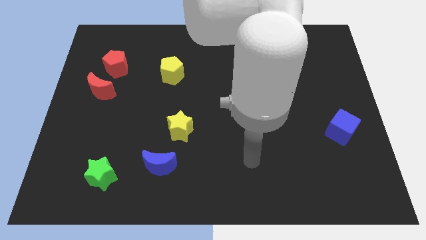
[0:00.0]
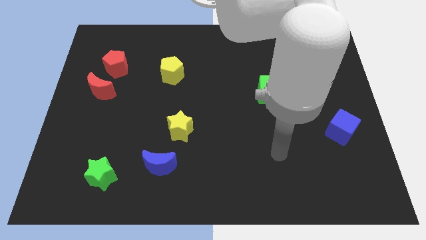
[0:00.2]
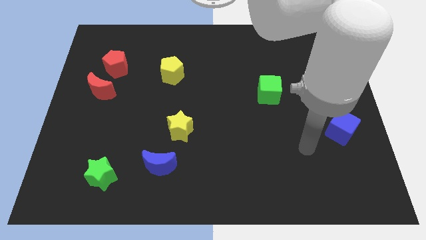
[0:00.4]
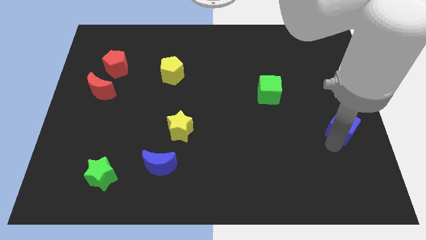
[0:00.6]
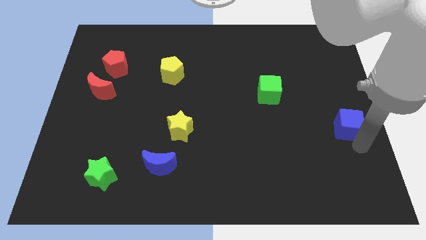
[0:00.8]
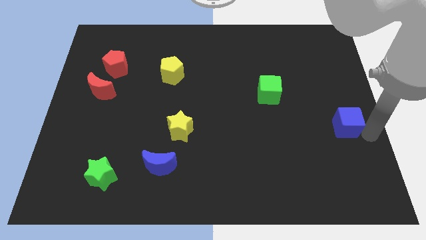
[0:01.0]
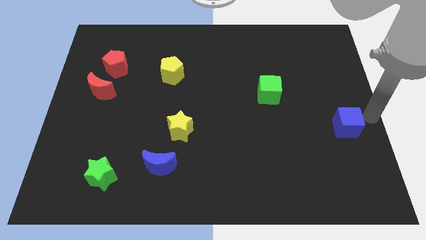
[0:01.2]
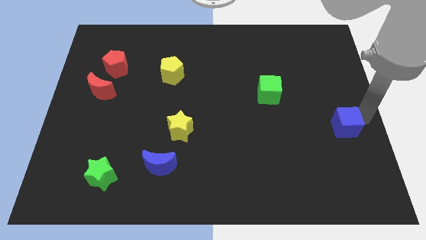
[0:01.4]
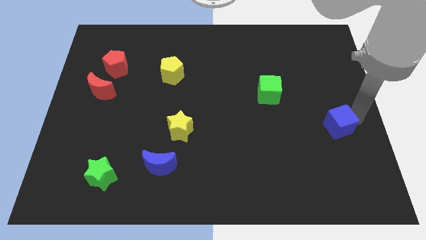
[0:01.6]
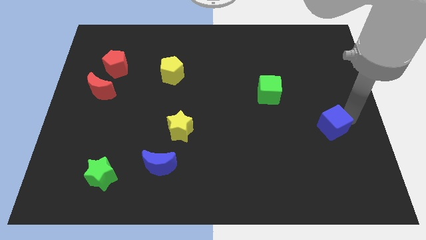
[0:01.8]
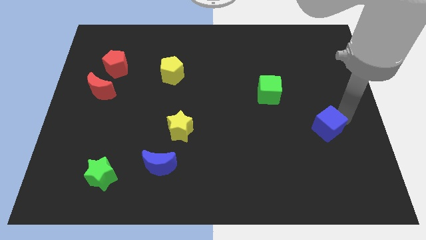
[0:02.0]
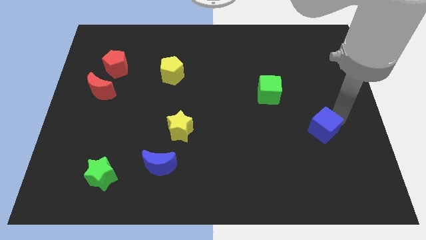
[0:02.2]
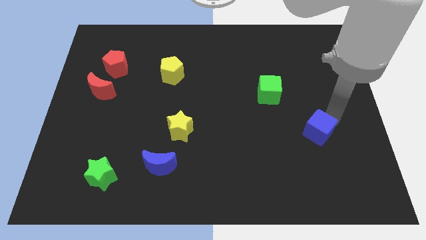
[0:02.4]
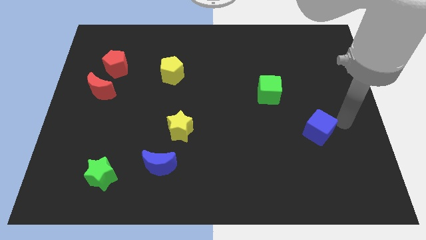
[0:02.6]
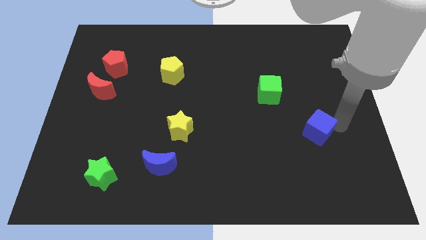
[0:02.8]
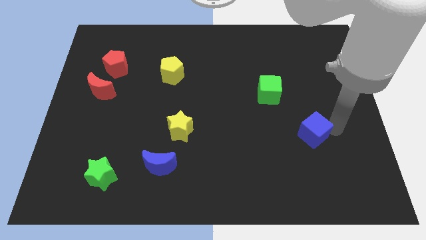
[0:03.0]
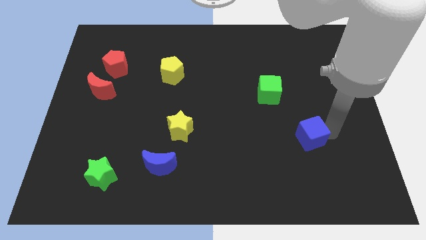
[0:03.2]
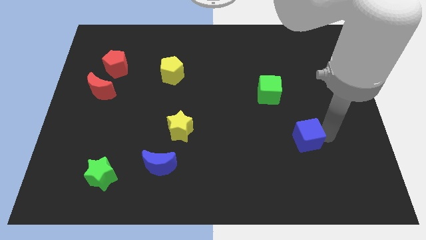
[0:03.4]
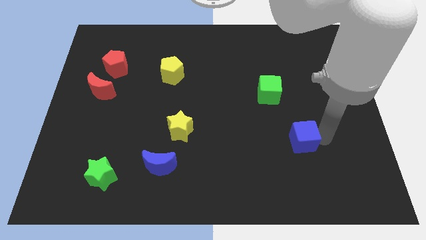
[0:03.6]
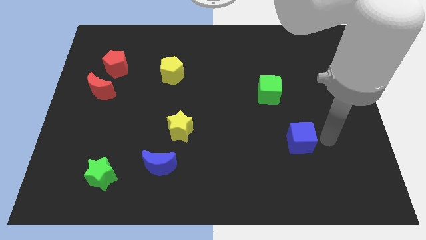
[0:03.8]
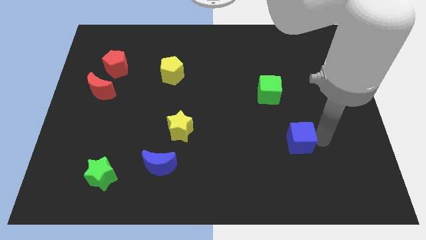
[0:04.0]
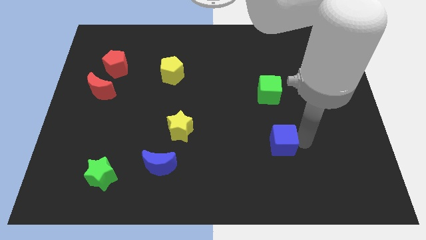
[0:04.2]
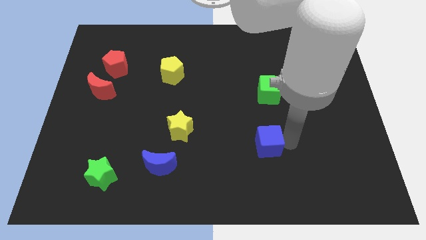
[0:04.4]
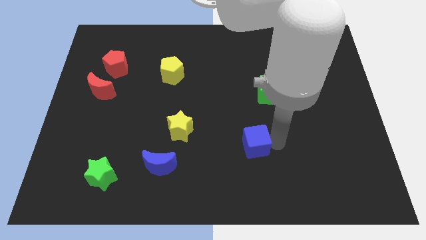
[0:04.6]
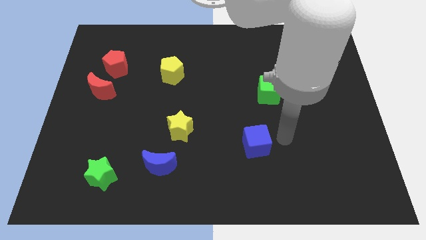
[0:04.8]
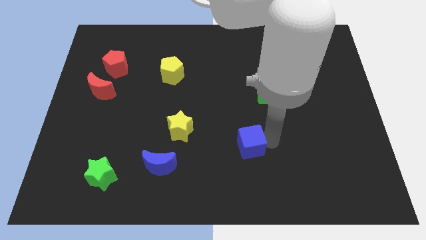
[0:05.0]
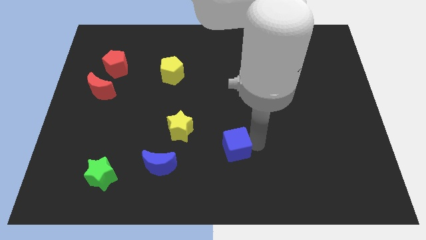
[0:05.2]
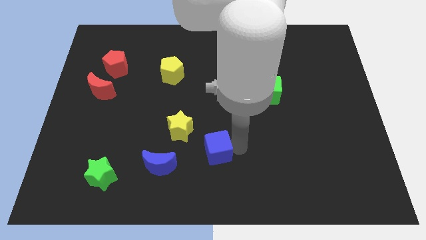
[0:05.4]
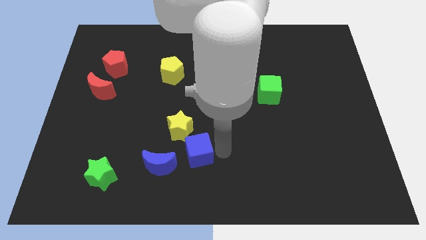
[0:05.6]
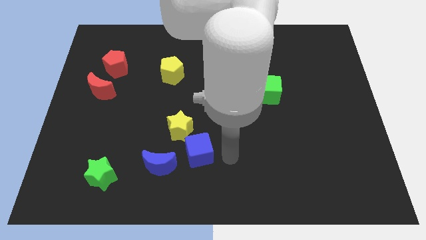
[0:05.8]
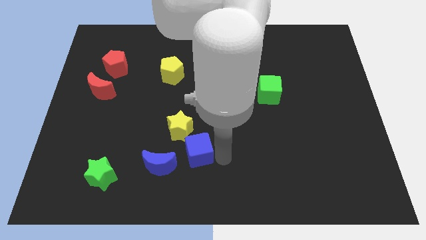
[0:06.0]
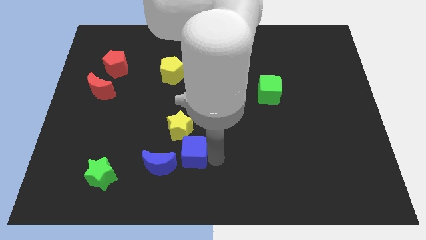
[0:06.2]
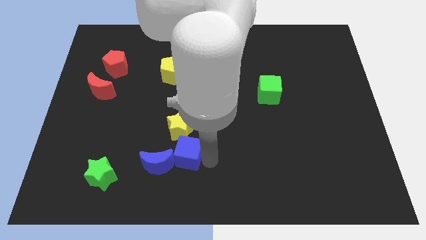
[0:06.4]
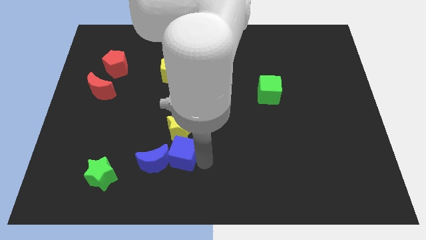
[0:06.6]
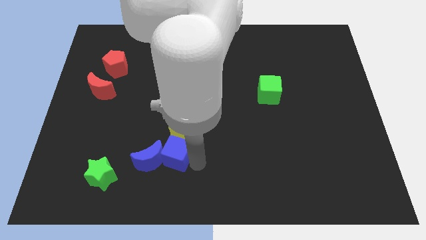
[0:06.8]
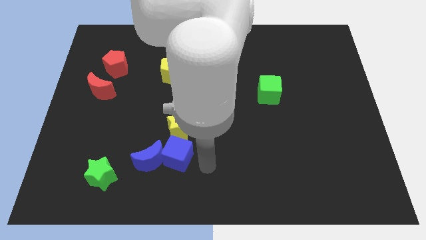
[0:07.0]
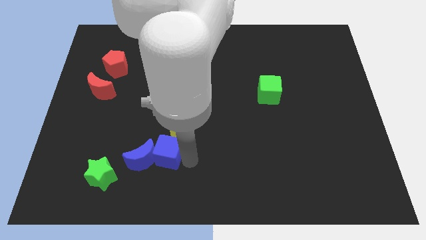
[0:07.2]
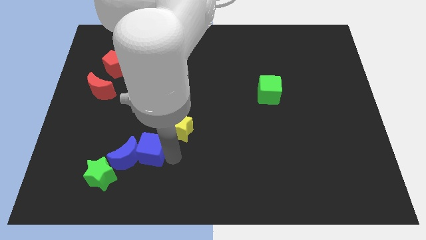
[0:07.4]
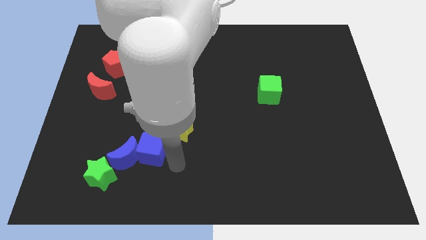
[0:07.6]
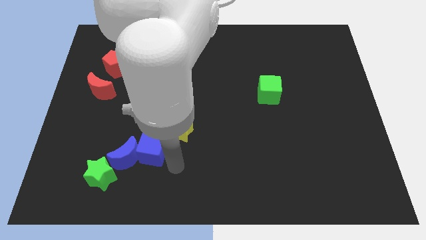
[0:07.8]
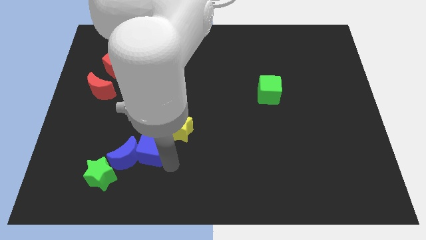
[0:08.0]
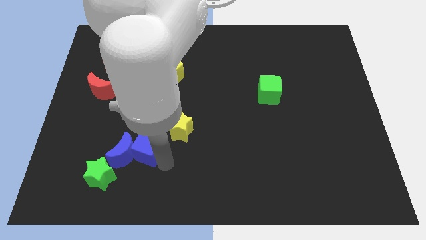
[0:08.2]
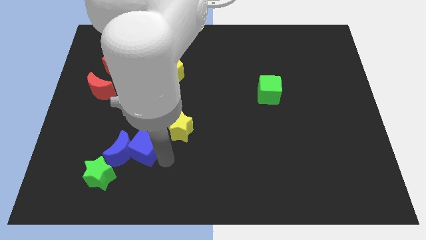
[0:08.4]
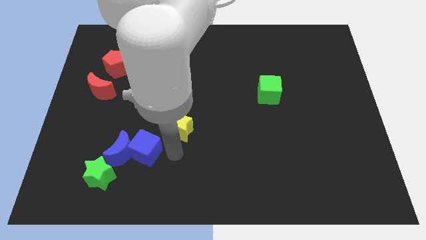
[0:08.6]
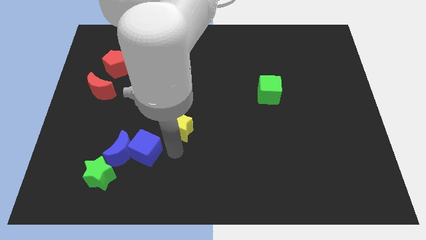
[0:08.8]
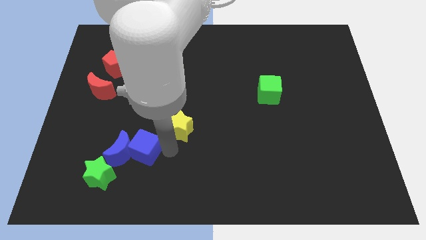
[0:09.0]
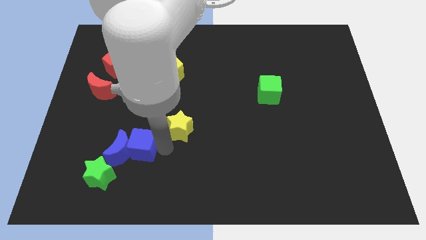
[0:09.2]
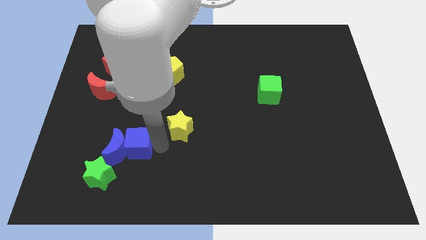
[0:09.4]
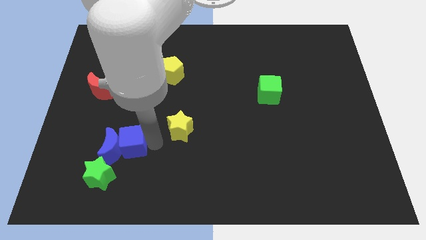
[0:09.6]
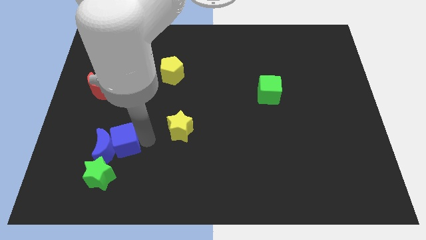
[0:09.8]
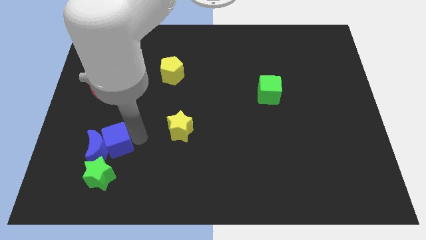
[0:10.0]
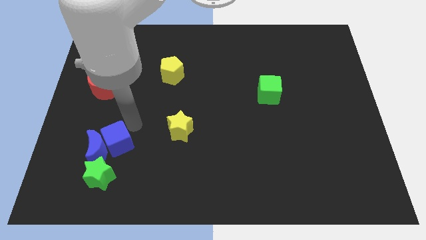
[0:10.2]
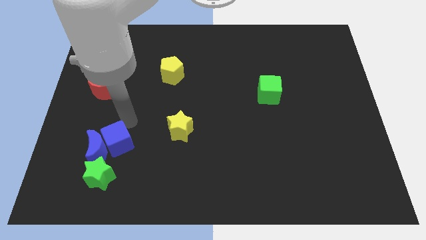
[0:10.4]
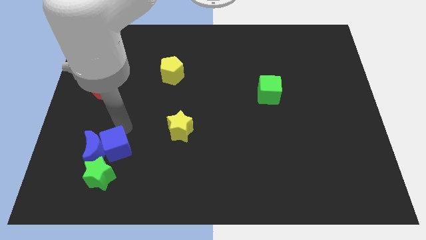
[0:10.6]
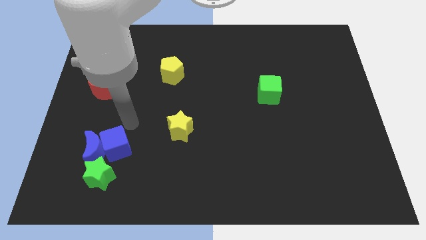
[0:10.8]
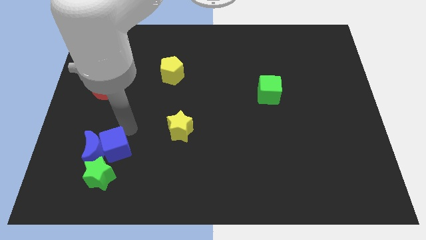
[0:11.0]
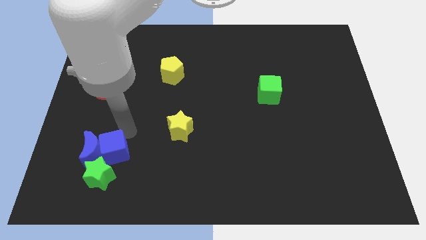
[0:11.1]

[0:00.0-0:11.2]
move the blue cube towards the green star

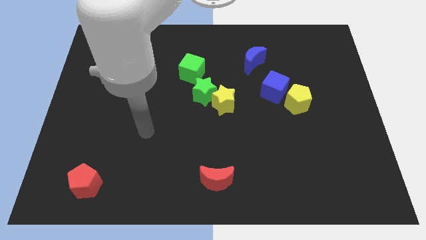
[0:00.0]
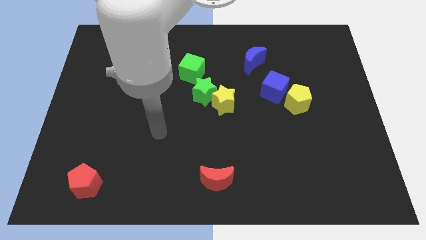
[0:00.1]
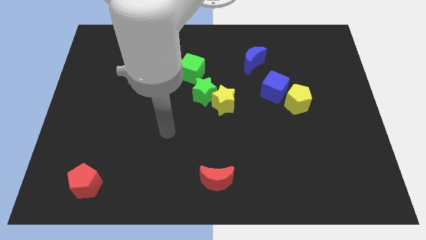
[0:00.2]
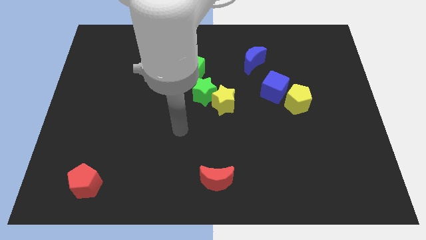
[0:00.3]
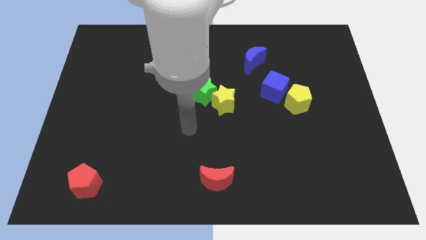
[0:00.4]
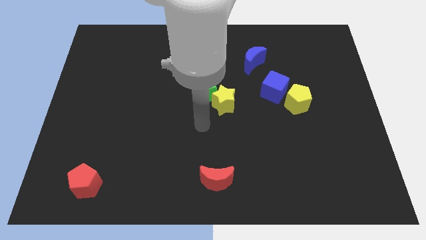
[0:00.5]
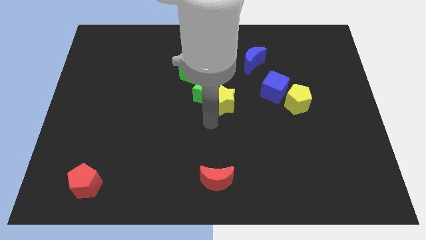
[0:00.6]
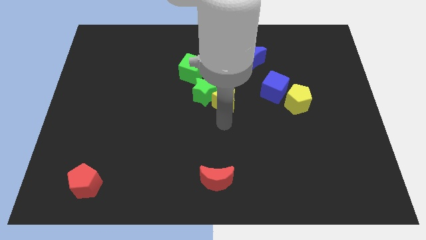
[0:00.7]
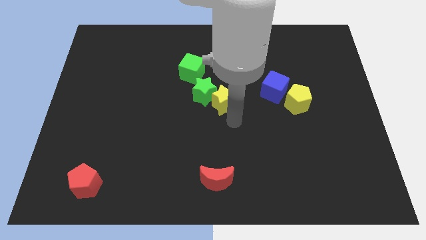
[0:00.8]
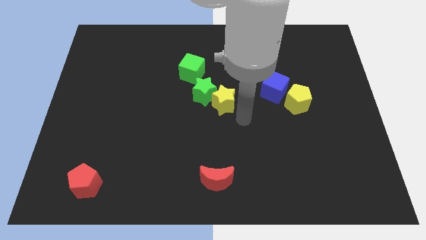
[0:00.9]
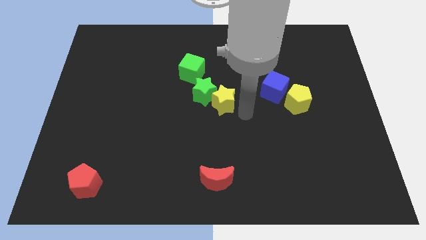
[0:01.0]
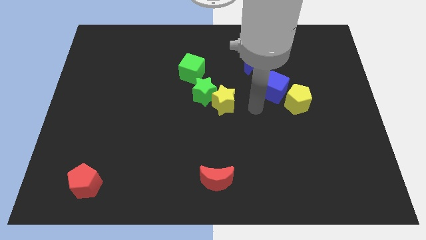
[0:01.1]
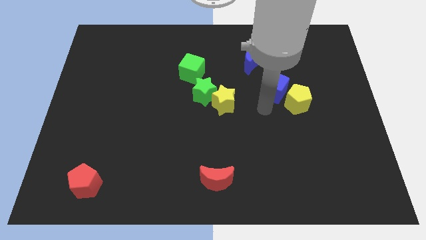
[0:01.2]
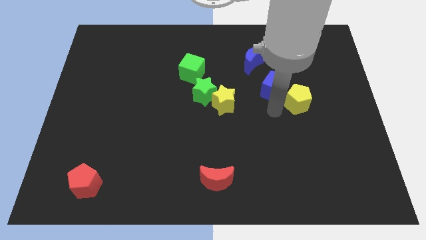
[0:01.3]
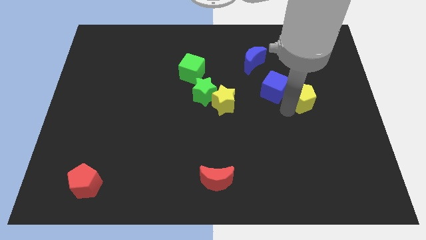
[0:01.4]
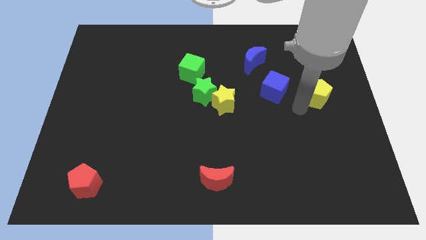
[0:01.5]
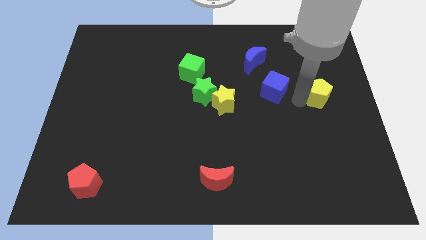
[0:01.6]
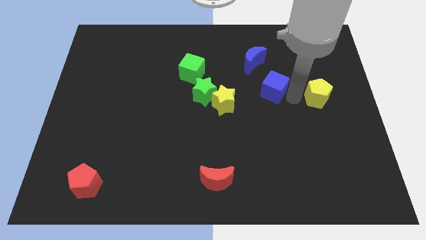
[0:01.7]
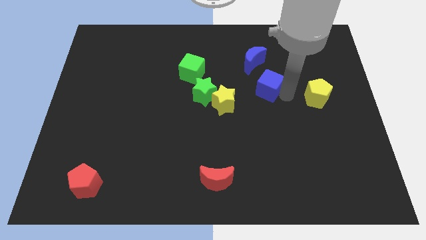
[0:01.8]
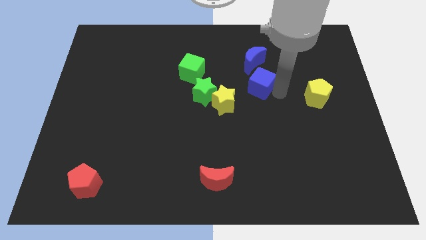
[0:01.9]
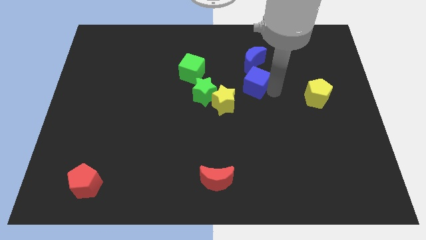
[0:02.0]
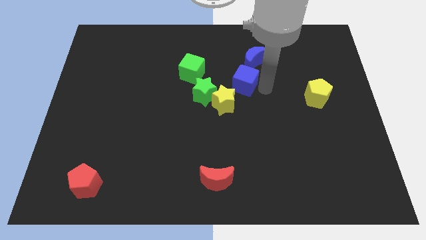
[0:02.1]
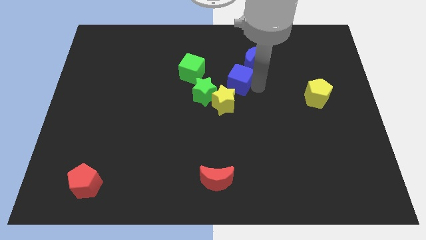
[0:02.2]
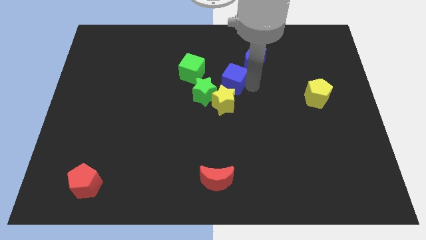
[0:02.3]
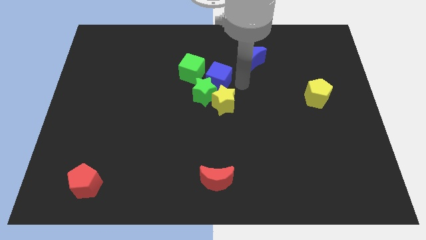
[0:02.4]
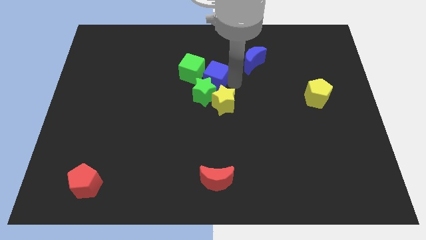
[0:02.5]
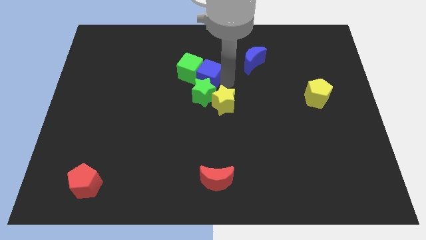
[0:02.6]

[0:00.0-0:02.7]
put the blue cube to the green cube
